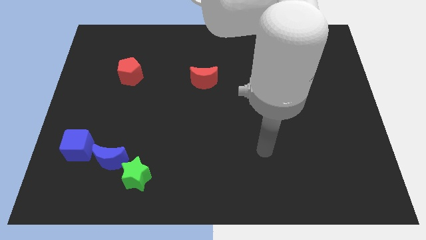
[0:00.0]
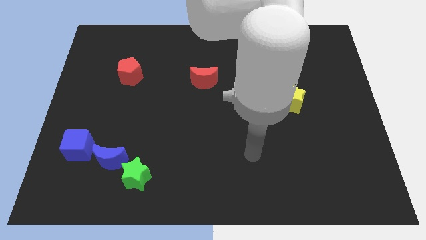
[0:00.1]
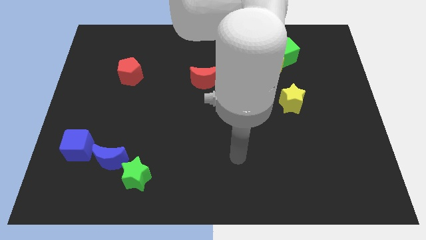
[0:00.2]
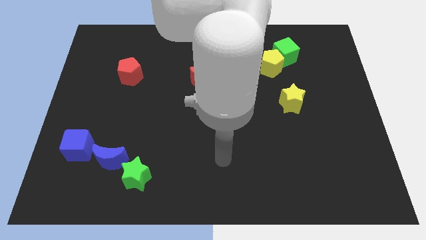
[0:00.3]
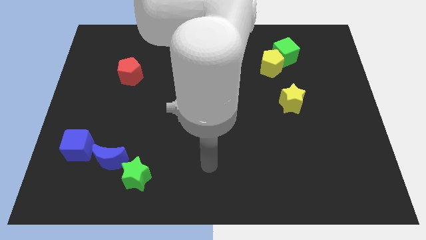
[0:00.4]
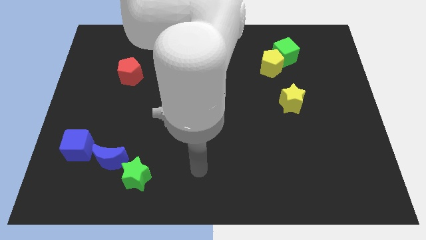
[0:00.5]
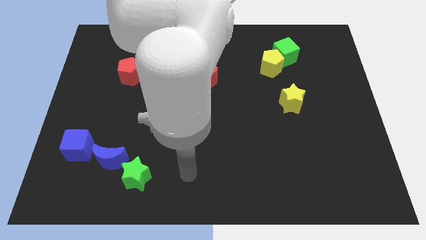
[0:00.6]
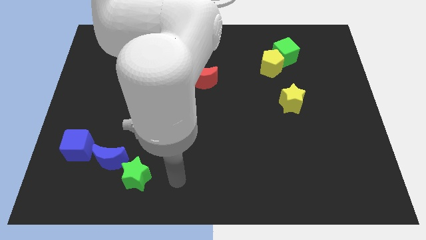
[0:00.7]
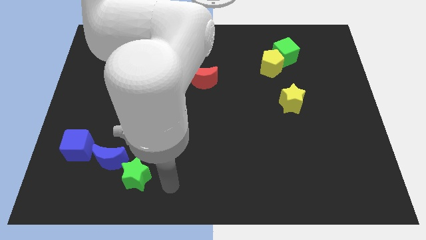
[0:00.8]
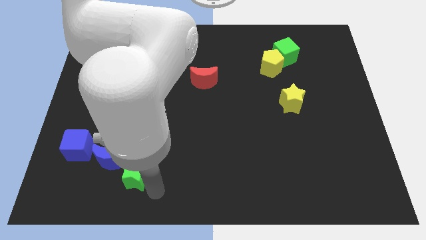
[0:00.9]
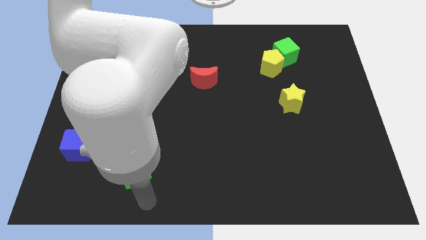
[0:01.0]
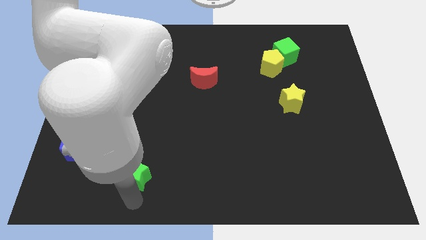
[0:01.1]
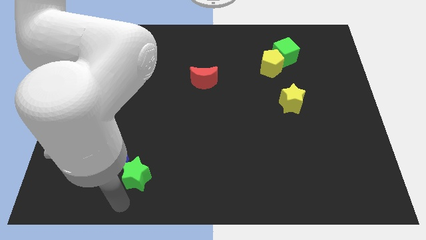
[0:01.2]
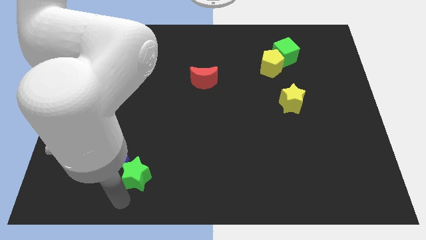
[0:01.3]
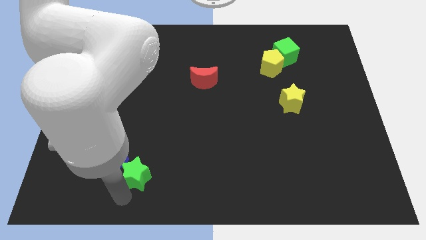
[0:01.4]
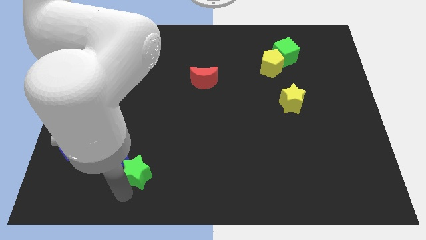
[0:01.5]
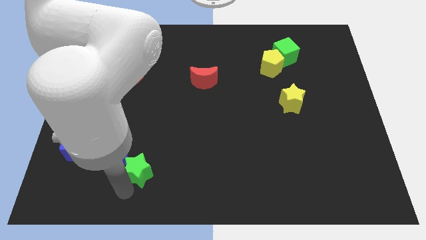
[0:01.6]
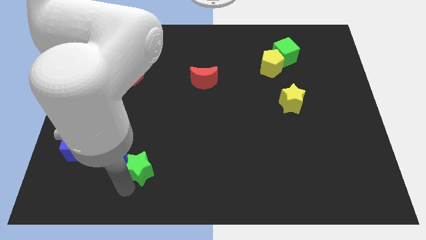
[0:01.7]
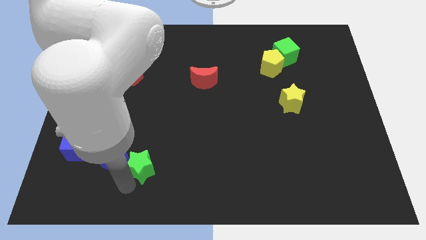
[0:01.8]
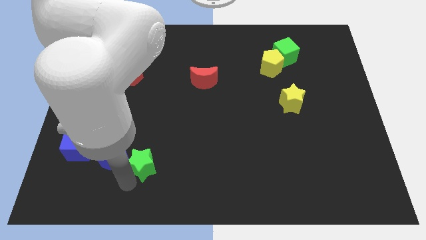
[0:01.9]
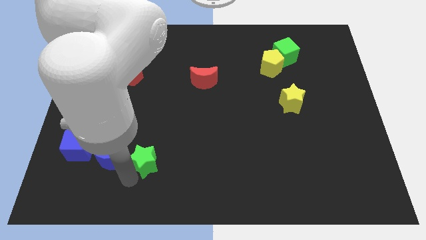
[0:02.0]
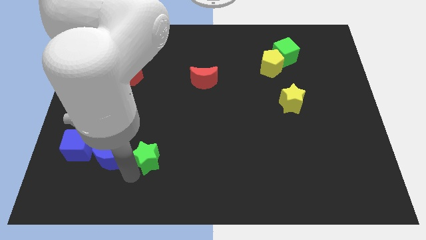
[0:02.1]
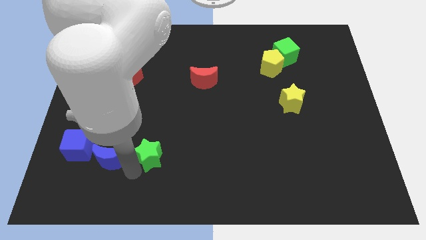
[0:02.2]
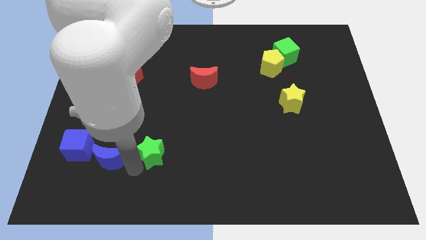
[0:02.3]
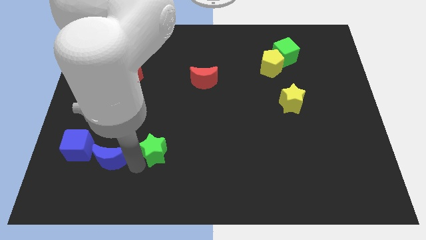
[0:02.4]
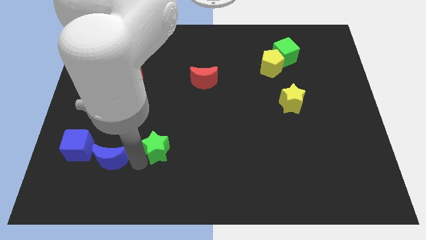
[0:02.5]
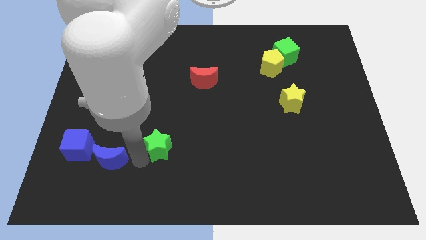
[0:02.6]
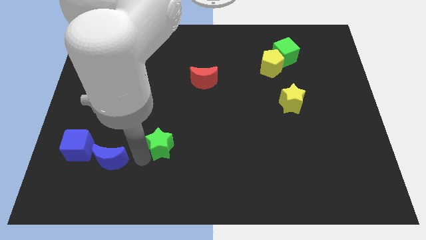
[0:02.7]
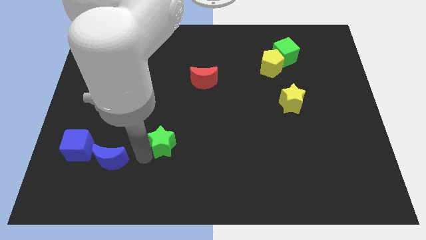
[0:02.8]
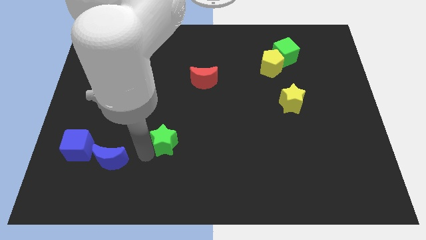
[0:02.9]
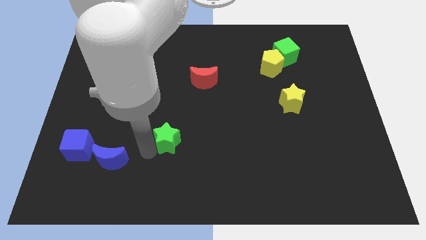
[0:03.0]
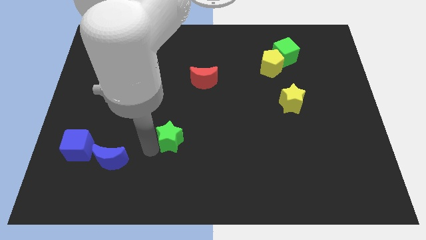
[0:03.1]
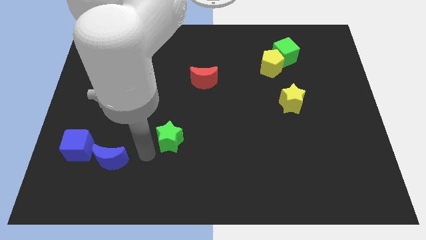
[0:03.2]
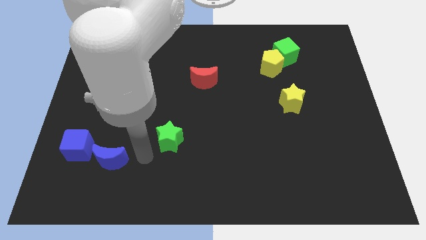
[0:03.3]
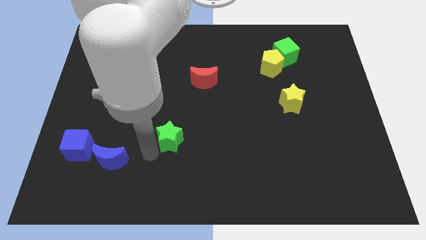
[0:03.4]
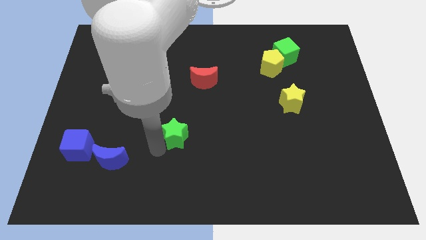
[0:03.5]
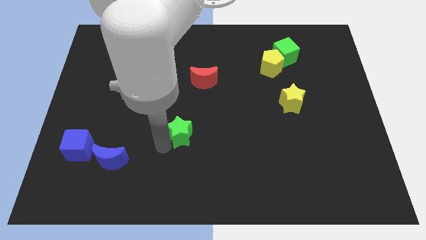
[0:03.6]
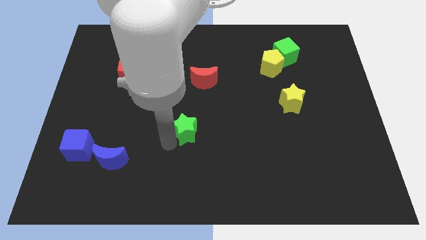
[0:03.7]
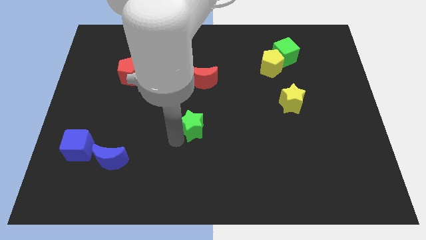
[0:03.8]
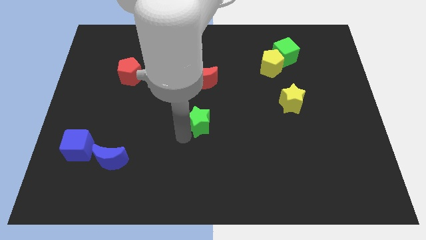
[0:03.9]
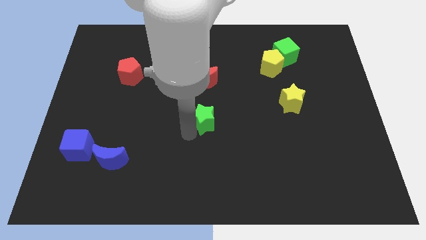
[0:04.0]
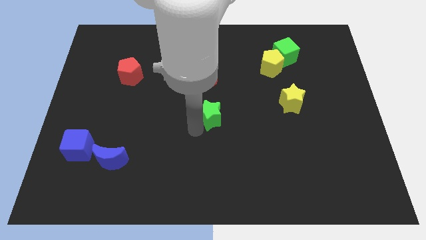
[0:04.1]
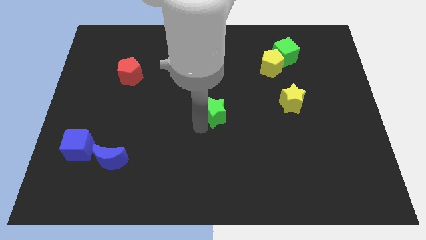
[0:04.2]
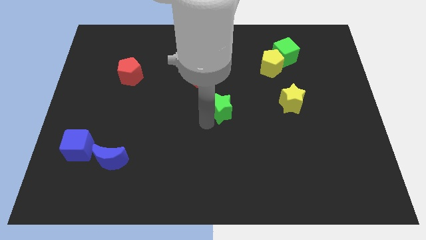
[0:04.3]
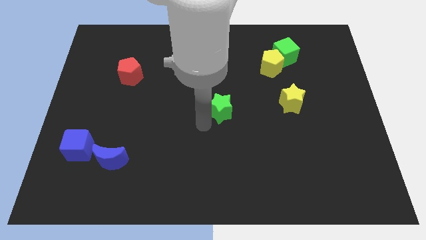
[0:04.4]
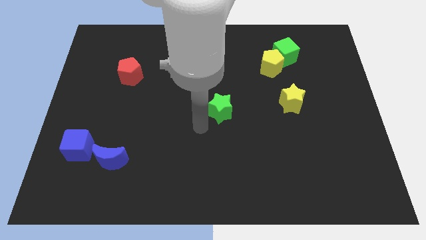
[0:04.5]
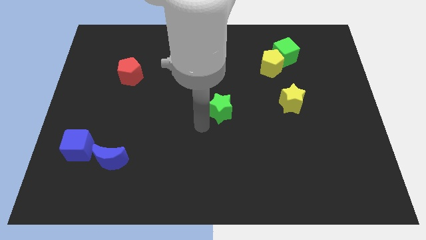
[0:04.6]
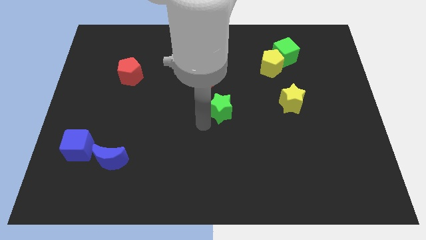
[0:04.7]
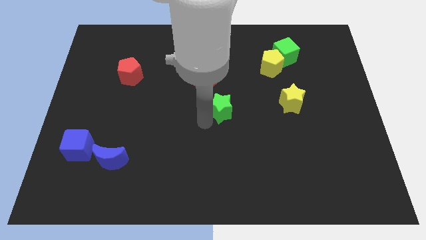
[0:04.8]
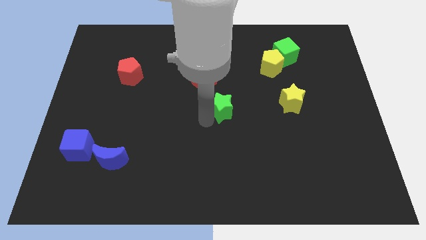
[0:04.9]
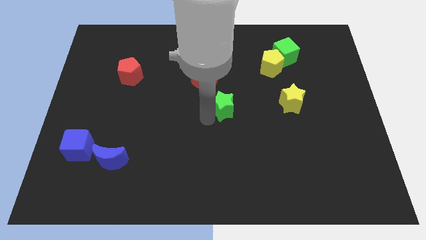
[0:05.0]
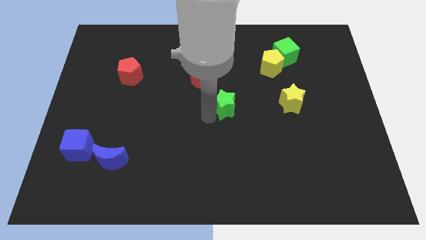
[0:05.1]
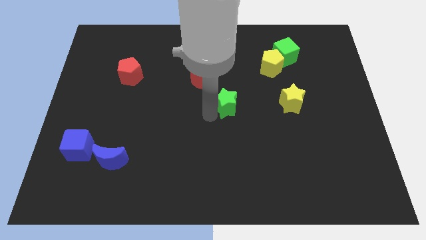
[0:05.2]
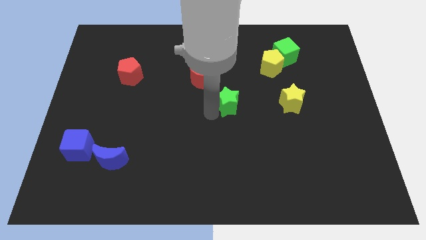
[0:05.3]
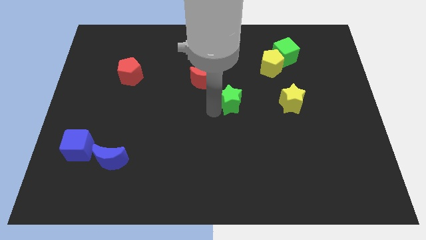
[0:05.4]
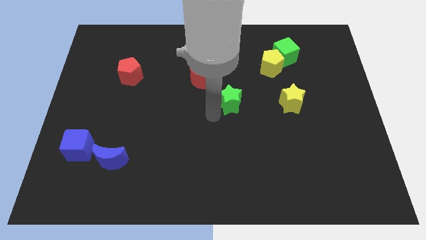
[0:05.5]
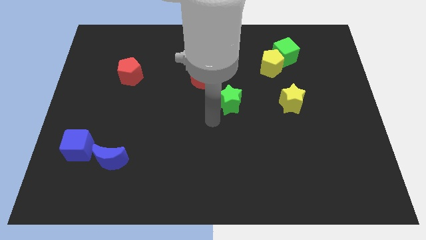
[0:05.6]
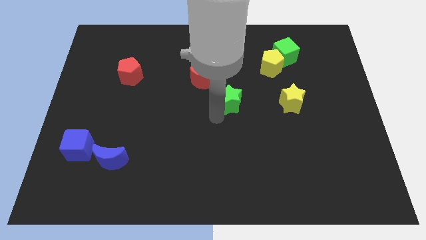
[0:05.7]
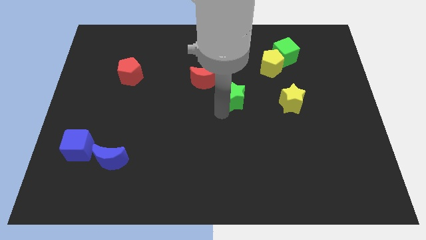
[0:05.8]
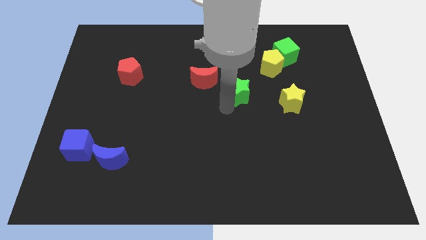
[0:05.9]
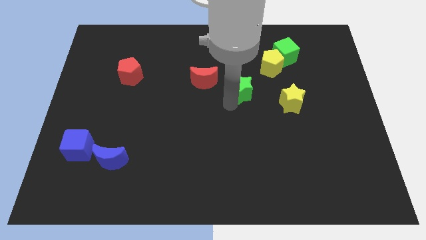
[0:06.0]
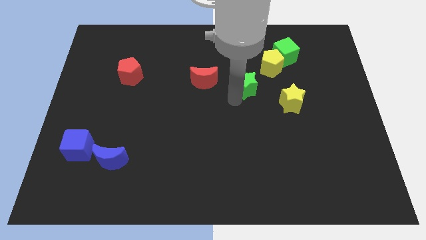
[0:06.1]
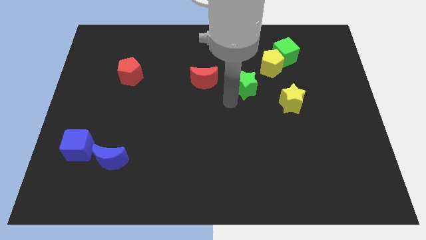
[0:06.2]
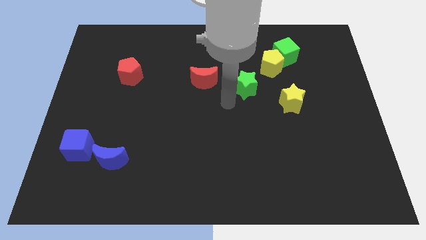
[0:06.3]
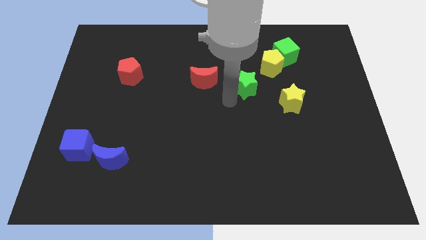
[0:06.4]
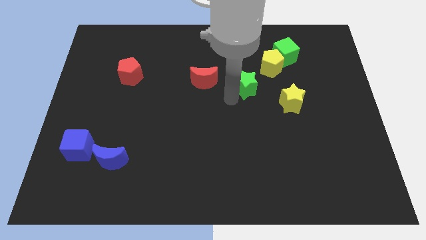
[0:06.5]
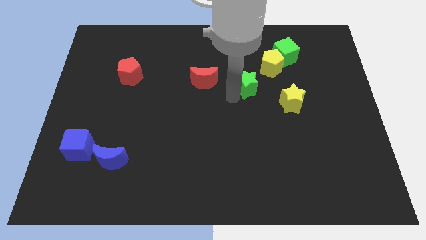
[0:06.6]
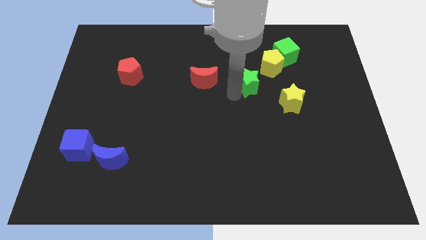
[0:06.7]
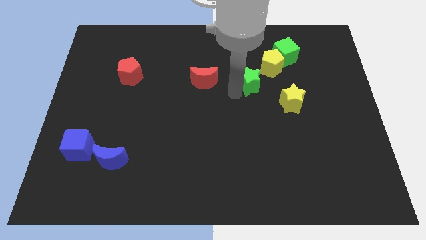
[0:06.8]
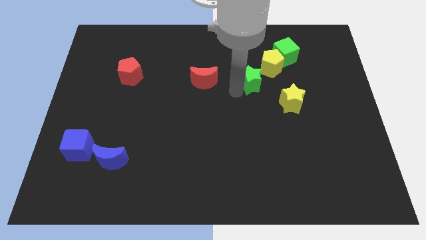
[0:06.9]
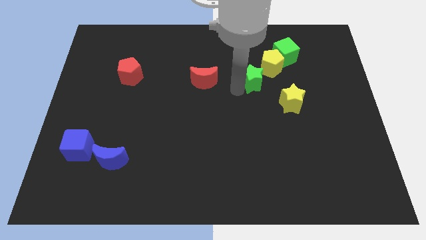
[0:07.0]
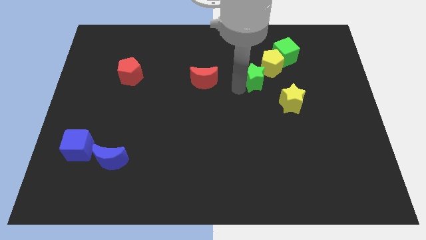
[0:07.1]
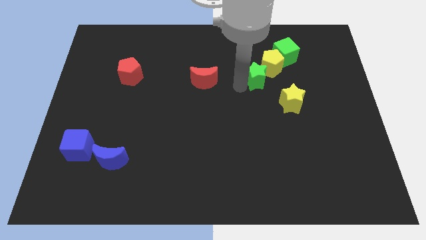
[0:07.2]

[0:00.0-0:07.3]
push the green star next to the yellow pentagon
